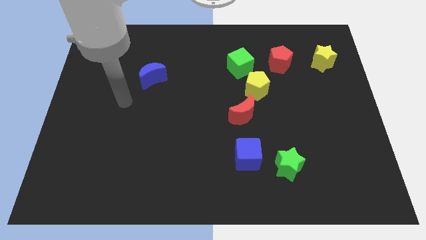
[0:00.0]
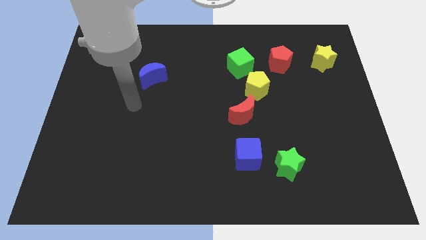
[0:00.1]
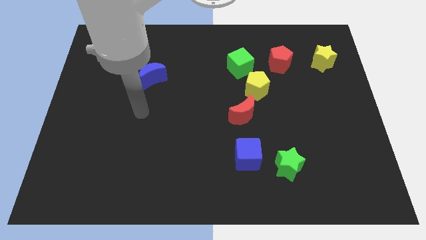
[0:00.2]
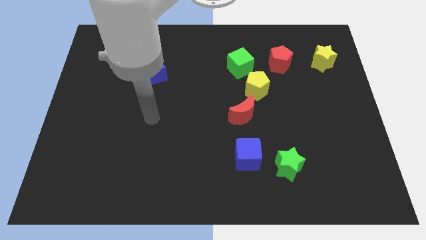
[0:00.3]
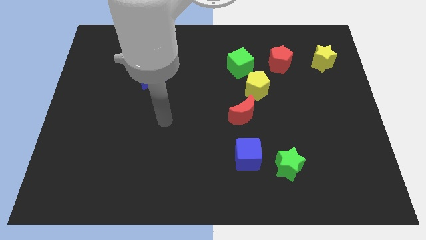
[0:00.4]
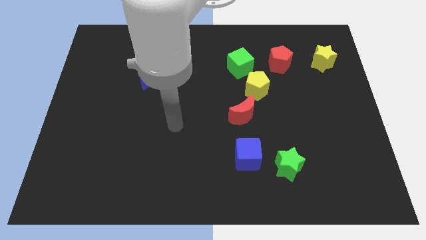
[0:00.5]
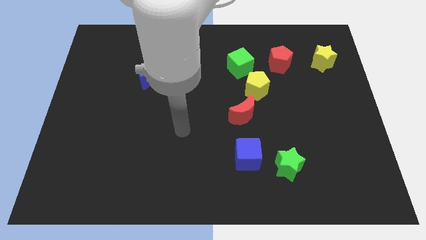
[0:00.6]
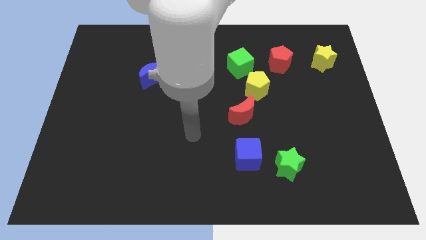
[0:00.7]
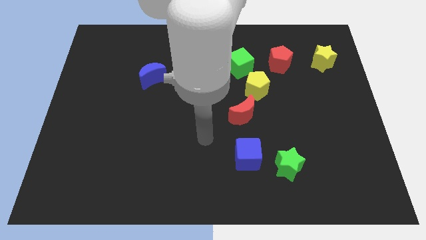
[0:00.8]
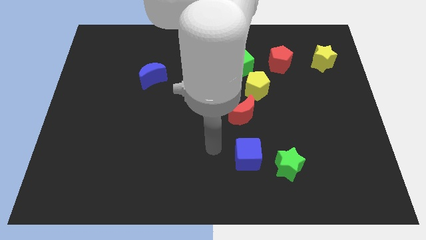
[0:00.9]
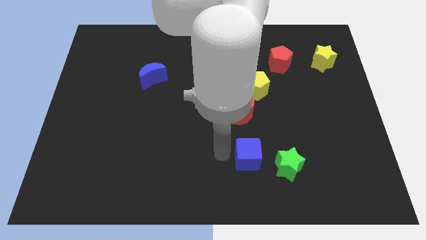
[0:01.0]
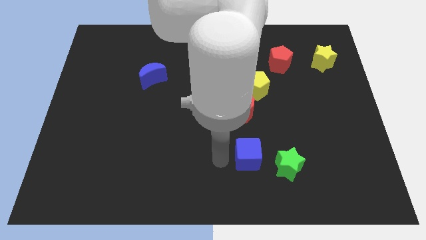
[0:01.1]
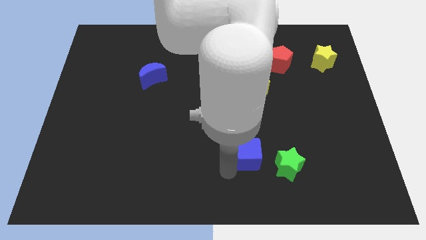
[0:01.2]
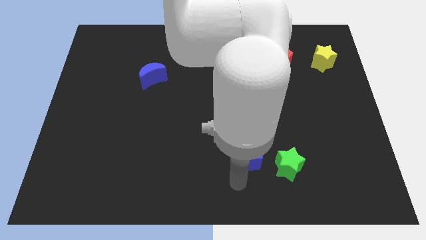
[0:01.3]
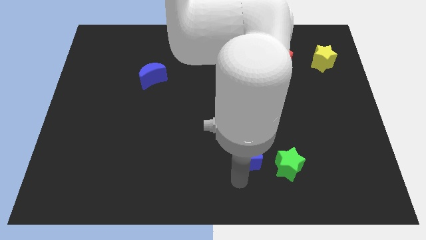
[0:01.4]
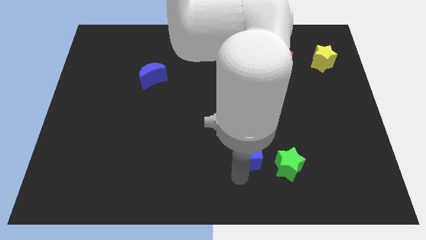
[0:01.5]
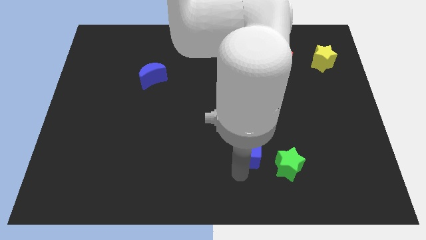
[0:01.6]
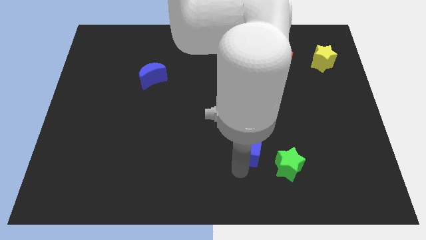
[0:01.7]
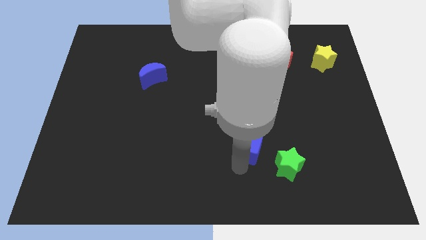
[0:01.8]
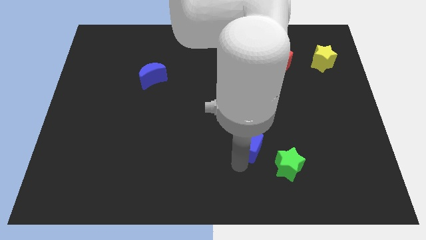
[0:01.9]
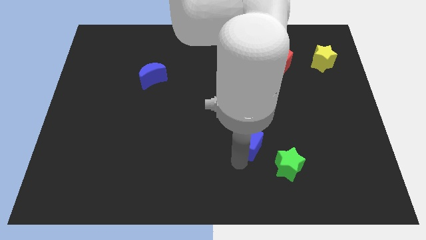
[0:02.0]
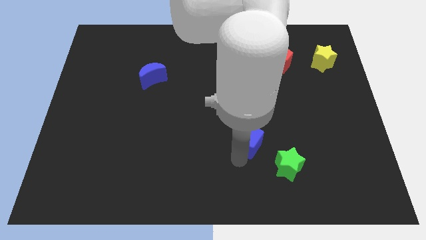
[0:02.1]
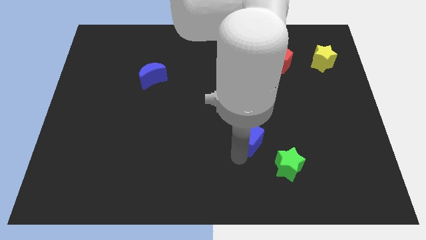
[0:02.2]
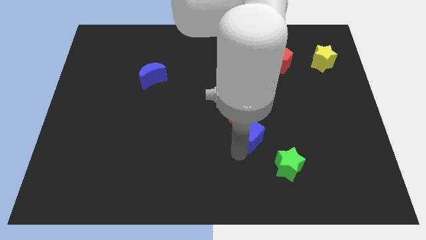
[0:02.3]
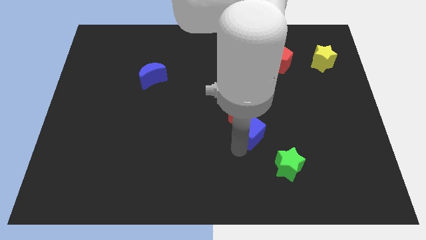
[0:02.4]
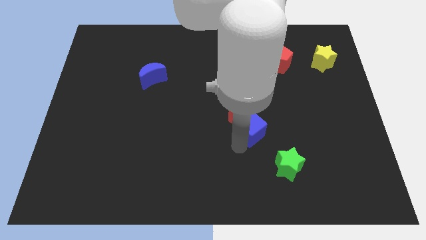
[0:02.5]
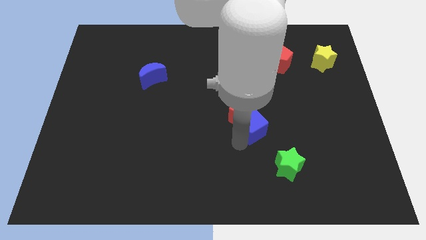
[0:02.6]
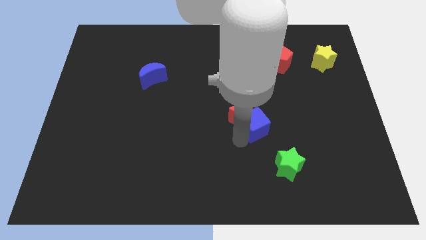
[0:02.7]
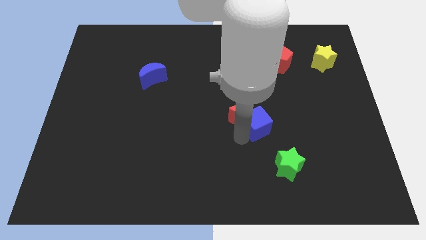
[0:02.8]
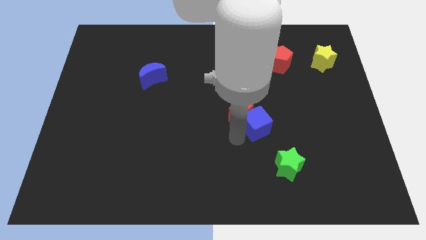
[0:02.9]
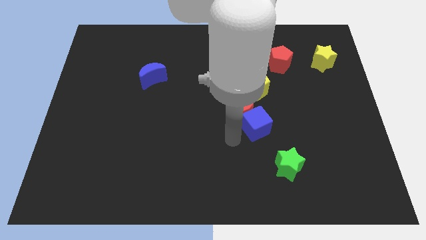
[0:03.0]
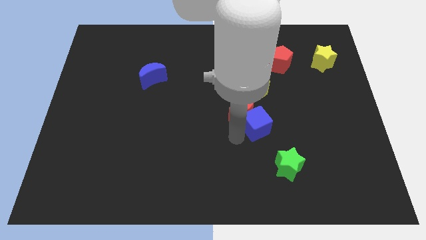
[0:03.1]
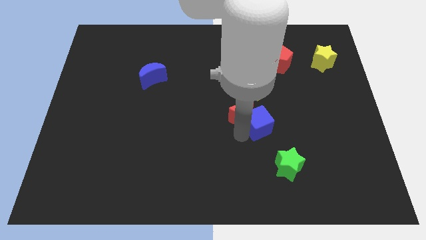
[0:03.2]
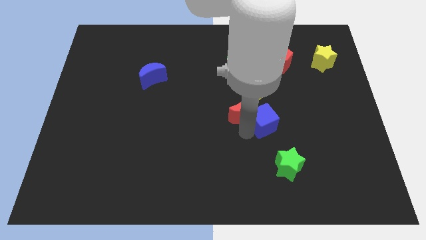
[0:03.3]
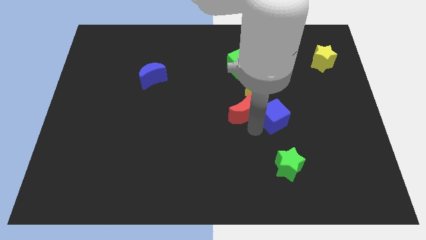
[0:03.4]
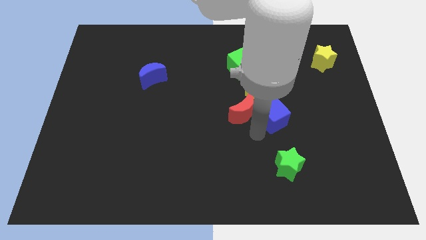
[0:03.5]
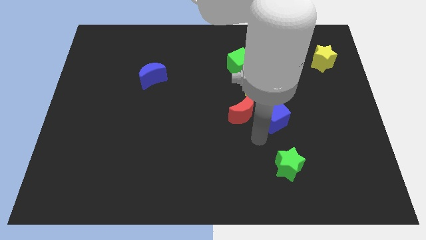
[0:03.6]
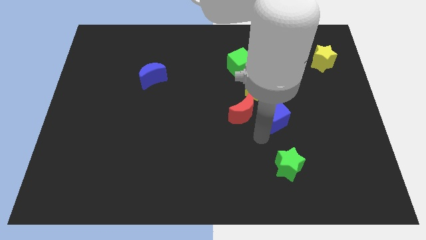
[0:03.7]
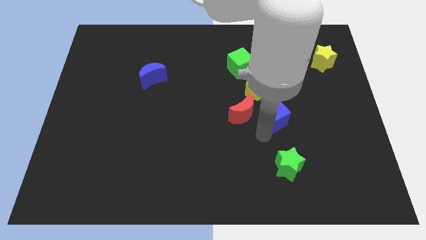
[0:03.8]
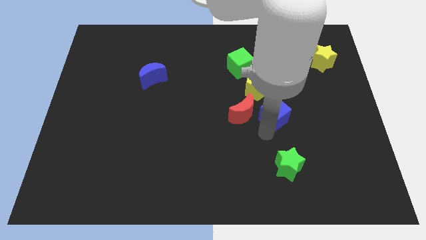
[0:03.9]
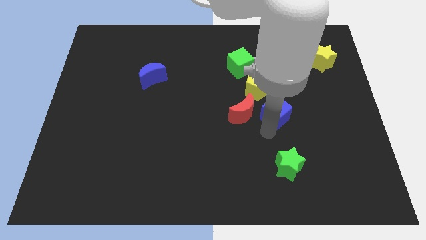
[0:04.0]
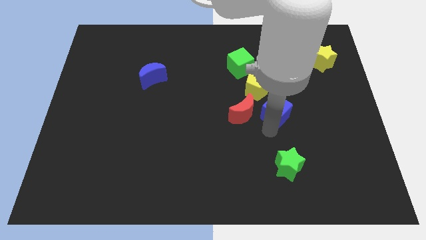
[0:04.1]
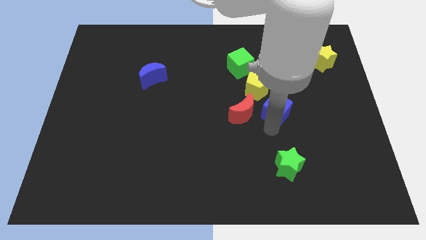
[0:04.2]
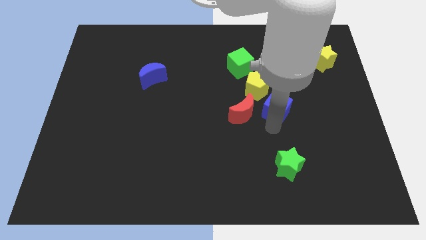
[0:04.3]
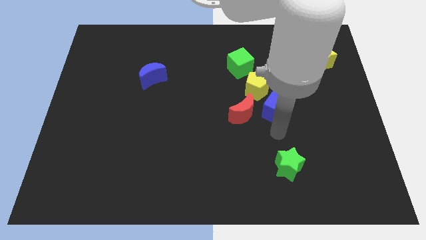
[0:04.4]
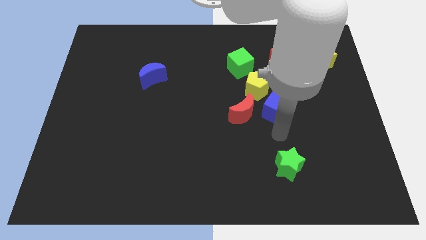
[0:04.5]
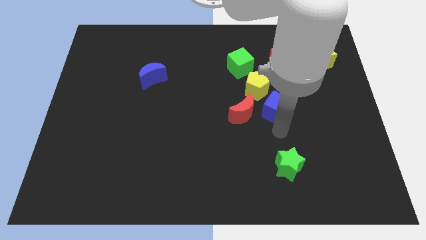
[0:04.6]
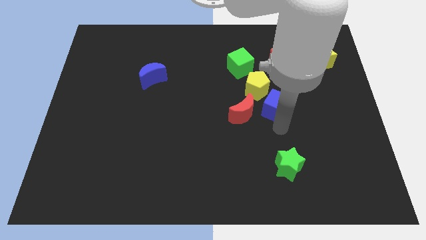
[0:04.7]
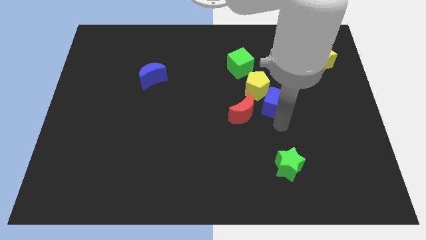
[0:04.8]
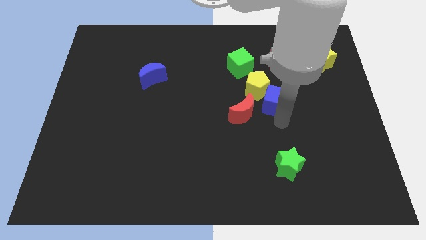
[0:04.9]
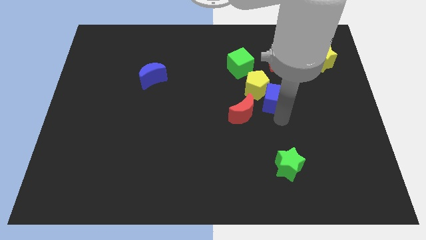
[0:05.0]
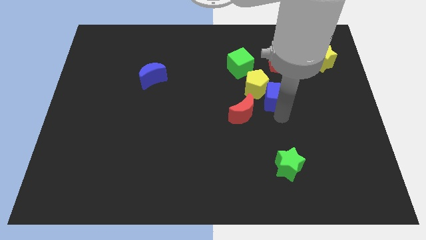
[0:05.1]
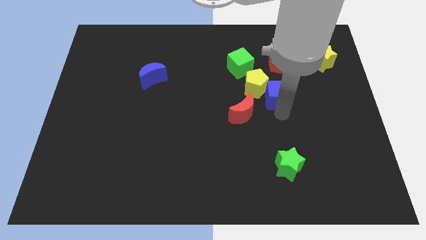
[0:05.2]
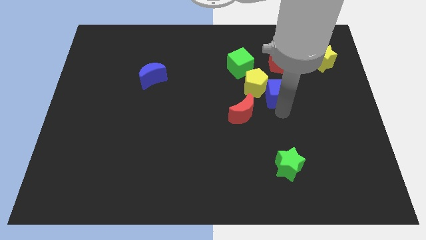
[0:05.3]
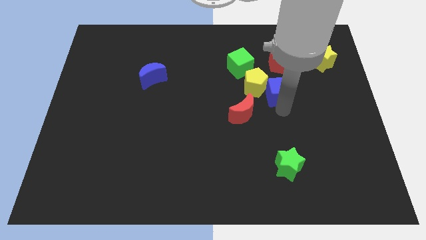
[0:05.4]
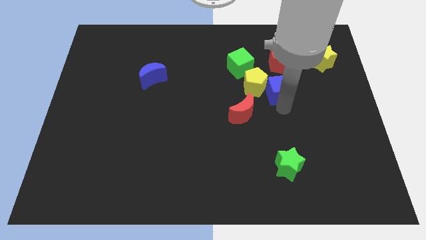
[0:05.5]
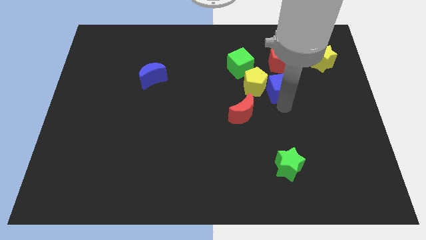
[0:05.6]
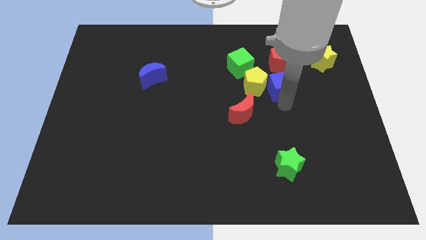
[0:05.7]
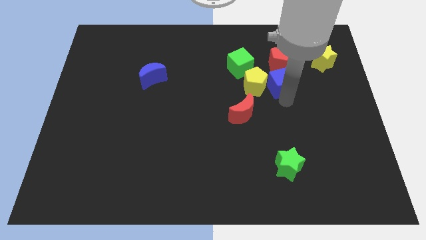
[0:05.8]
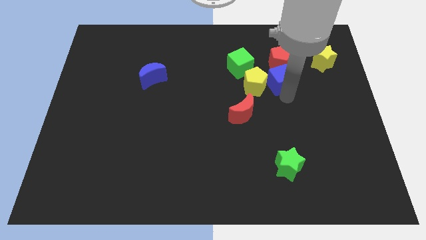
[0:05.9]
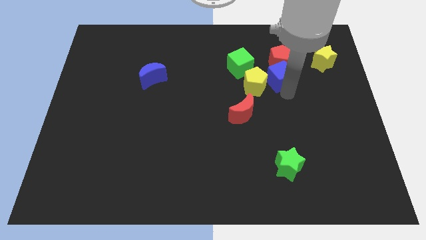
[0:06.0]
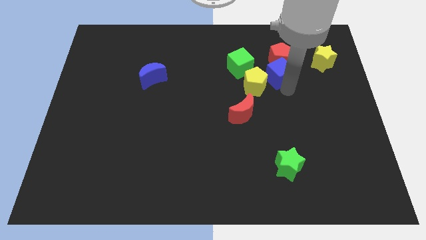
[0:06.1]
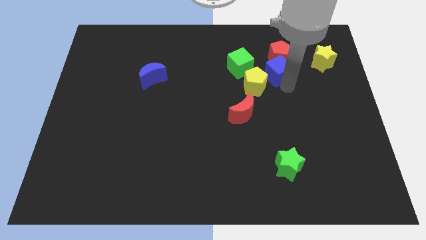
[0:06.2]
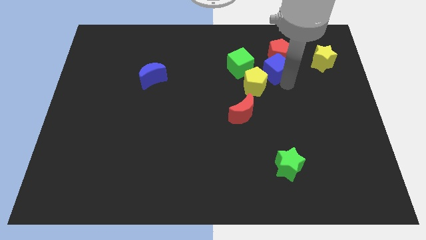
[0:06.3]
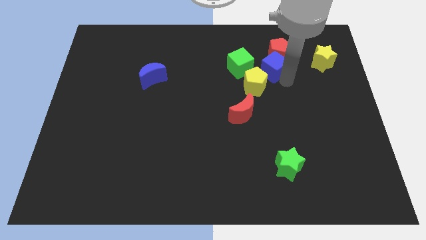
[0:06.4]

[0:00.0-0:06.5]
push the blue cube to the top of the yellow pentagon

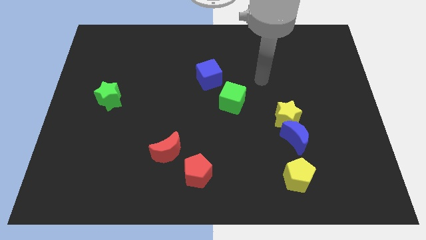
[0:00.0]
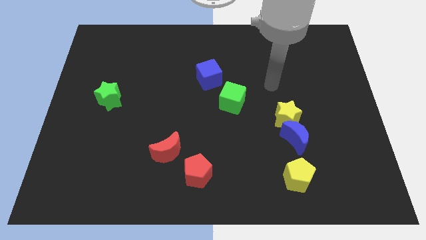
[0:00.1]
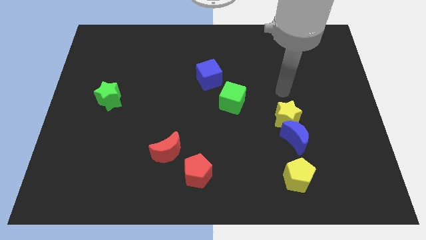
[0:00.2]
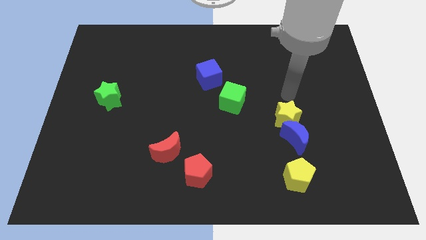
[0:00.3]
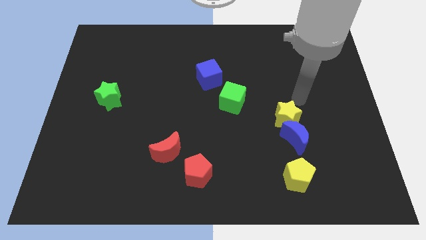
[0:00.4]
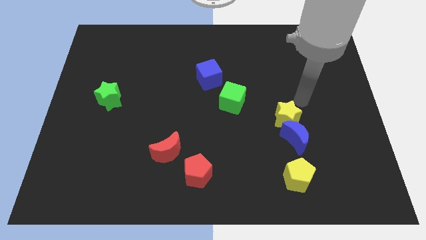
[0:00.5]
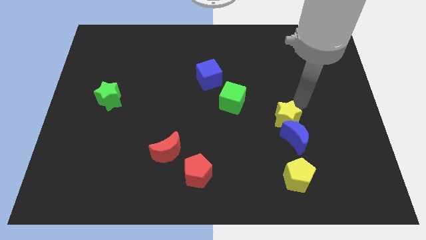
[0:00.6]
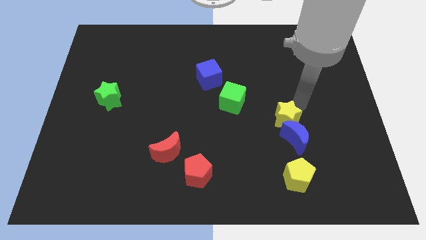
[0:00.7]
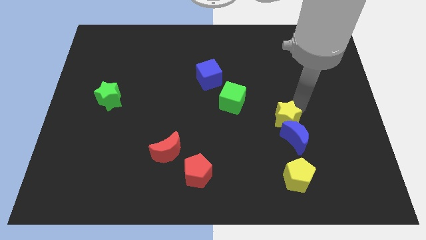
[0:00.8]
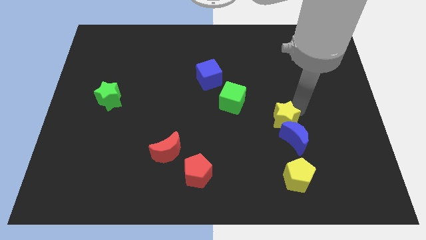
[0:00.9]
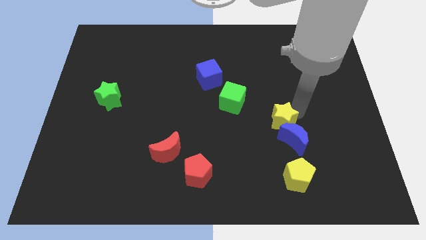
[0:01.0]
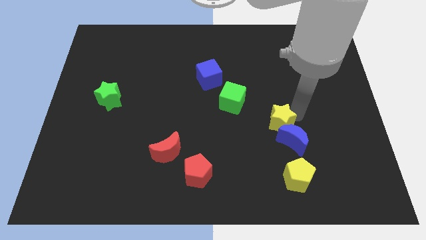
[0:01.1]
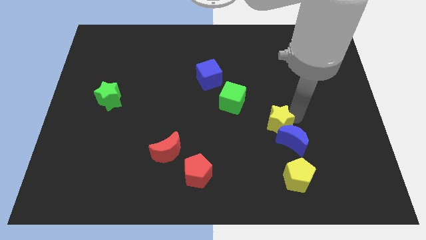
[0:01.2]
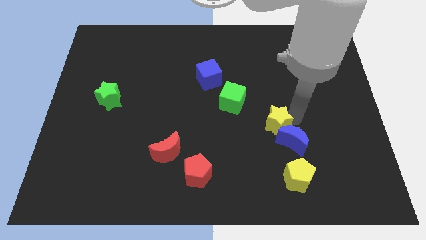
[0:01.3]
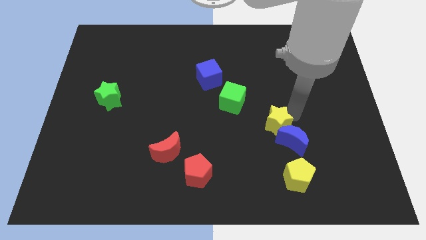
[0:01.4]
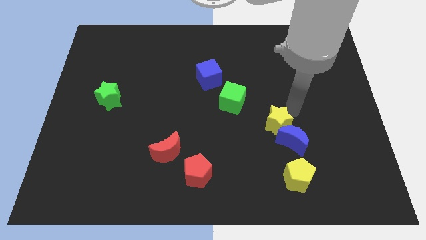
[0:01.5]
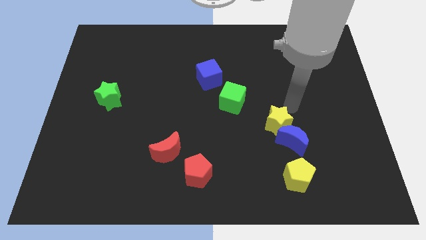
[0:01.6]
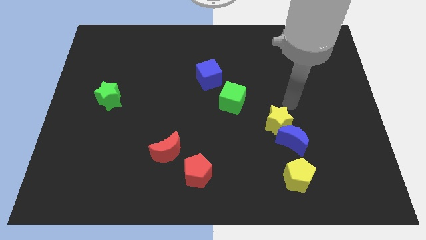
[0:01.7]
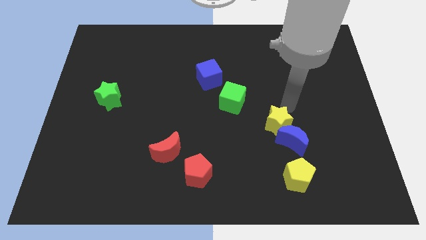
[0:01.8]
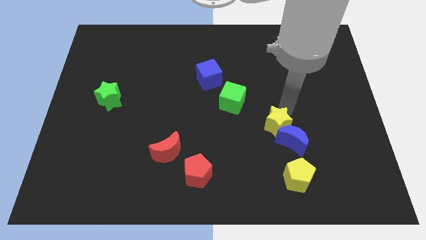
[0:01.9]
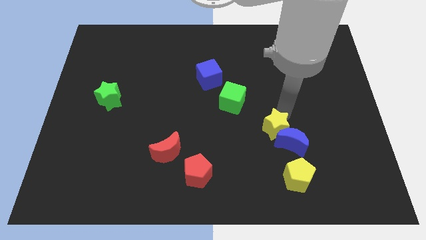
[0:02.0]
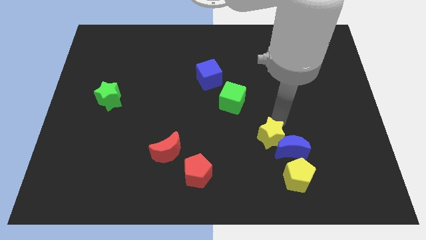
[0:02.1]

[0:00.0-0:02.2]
slide the yellow star diagonally up and to the left of the yellow pentagon
